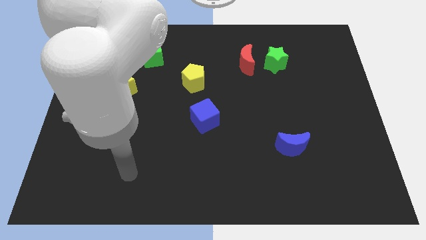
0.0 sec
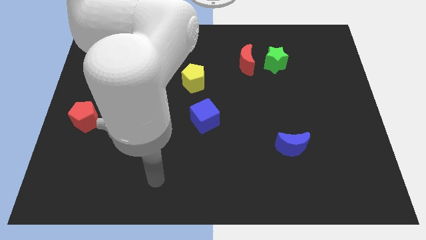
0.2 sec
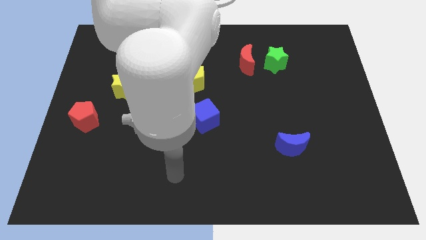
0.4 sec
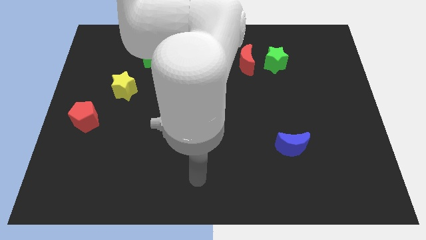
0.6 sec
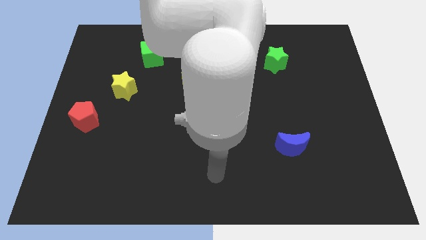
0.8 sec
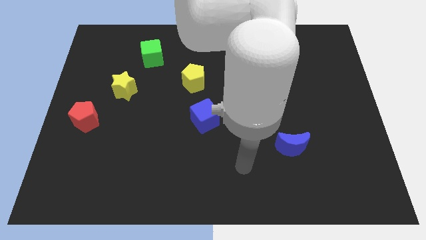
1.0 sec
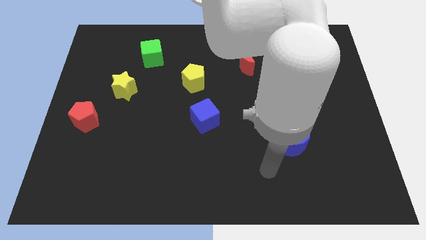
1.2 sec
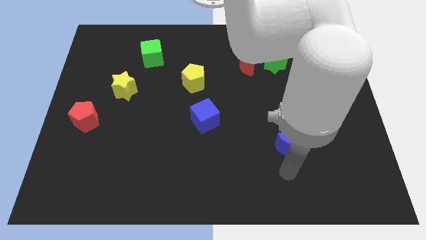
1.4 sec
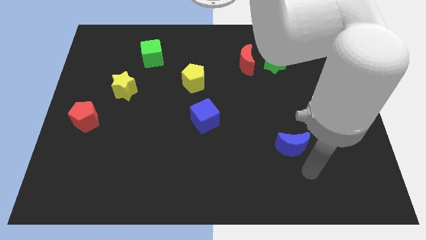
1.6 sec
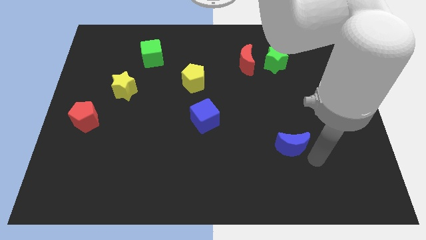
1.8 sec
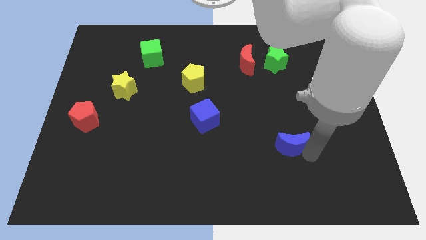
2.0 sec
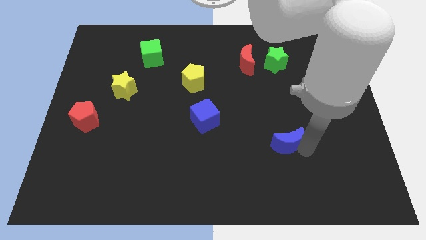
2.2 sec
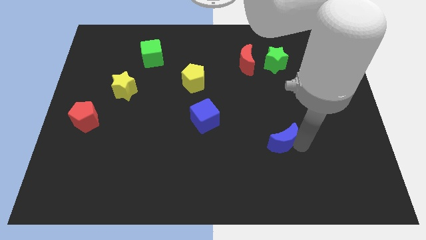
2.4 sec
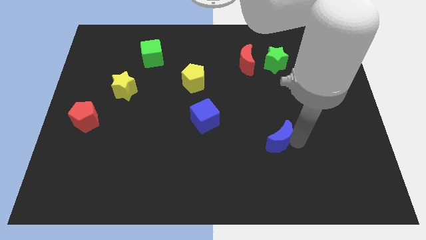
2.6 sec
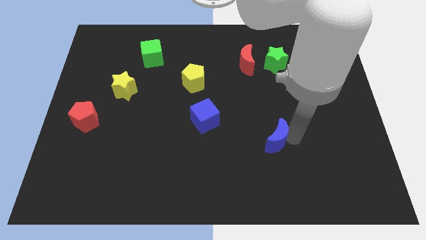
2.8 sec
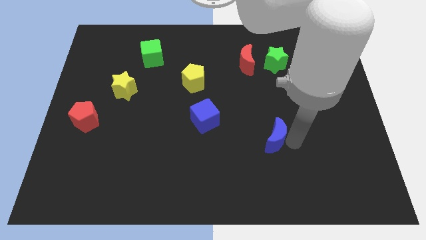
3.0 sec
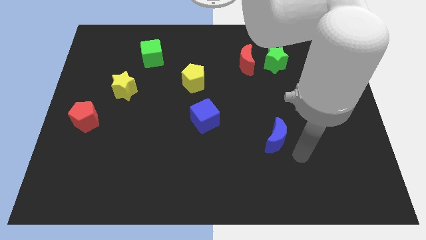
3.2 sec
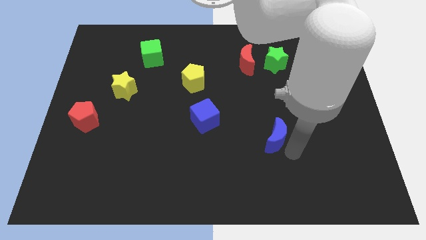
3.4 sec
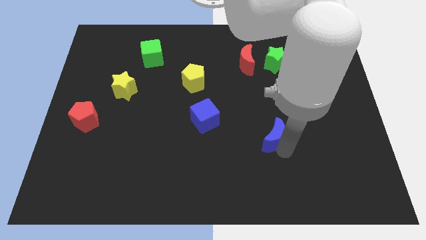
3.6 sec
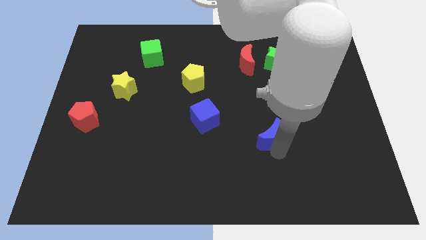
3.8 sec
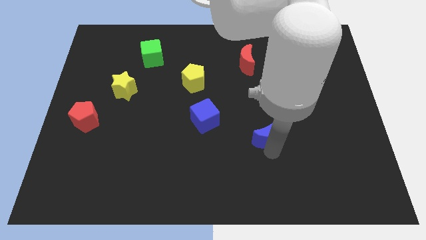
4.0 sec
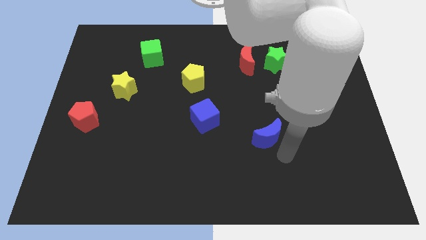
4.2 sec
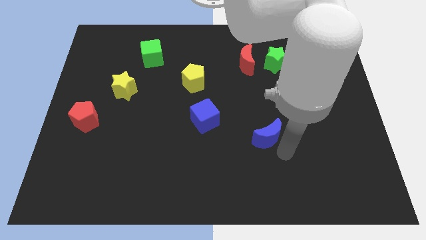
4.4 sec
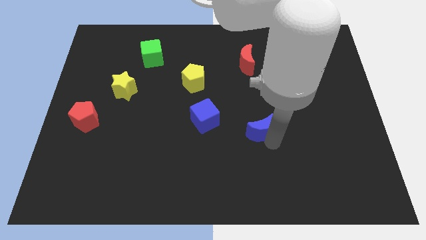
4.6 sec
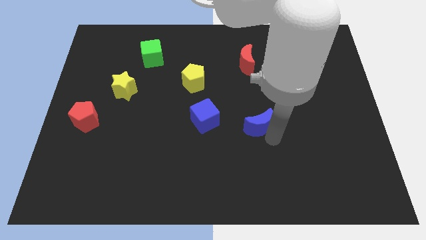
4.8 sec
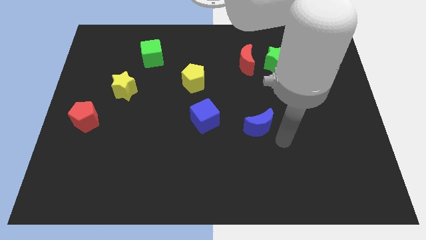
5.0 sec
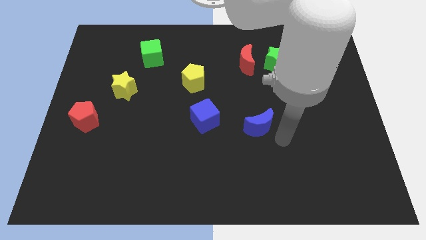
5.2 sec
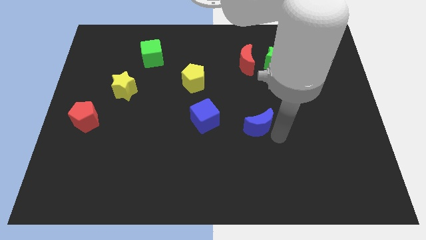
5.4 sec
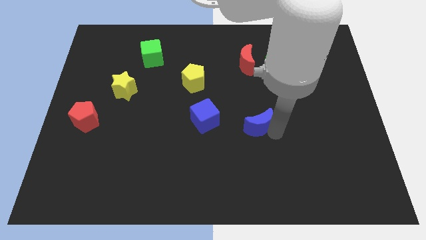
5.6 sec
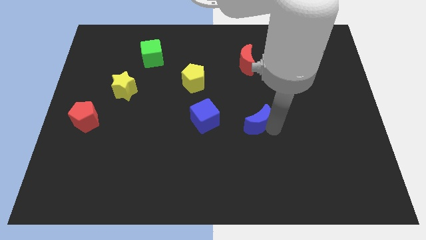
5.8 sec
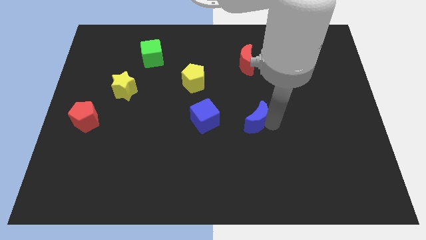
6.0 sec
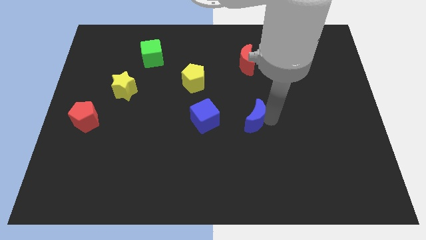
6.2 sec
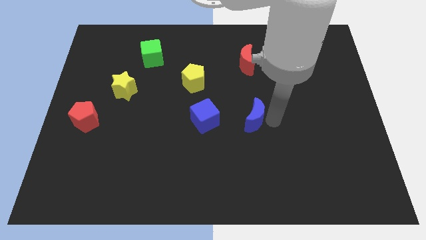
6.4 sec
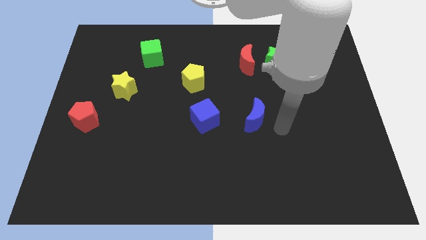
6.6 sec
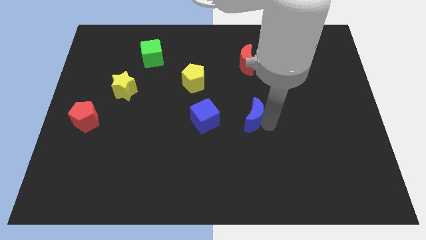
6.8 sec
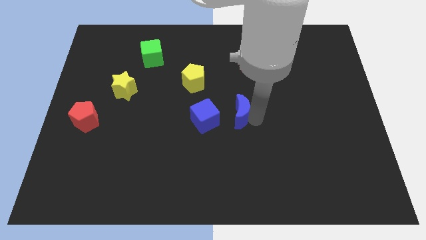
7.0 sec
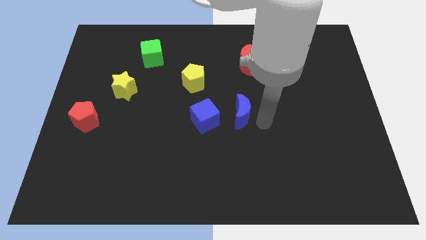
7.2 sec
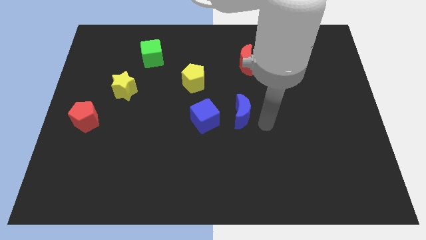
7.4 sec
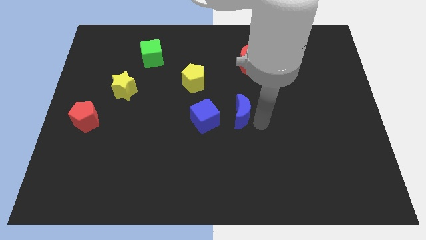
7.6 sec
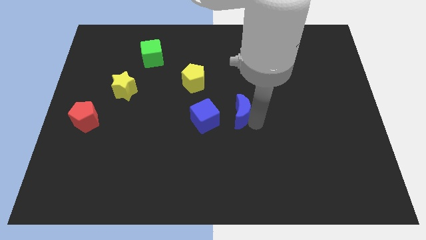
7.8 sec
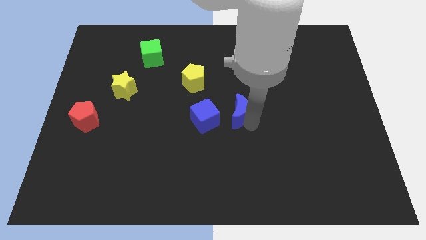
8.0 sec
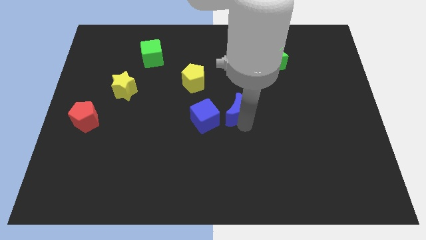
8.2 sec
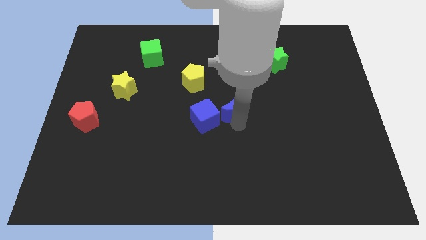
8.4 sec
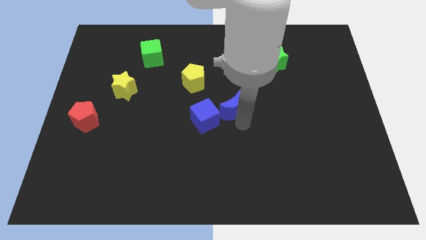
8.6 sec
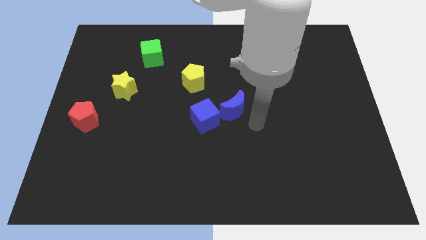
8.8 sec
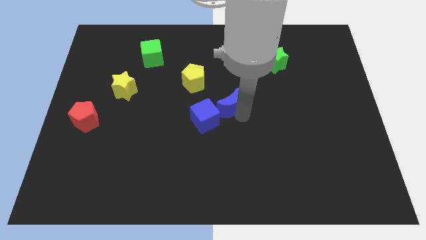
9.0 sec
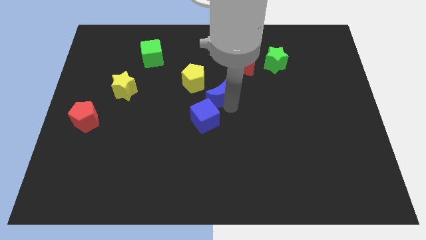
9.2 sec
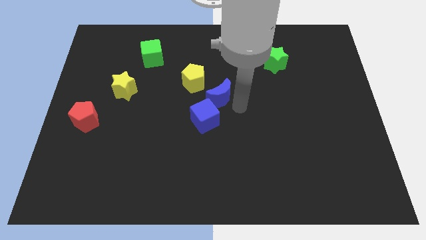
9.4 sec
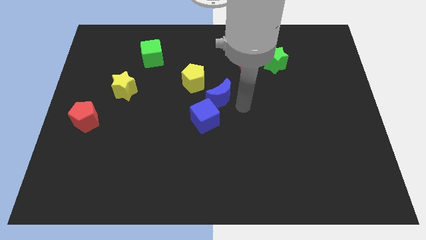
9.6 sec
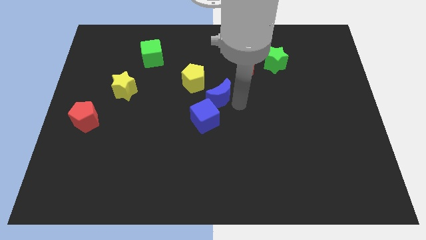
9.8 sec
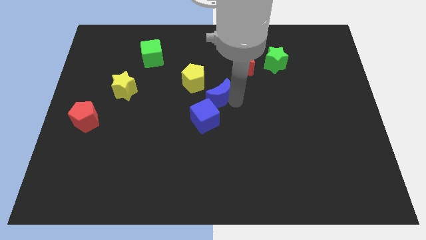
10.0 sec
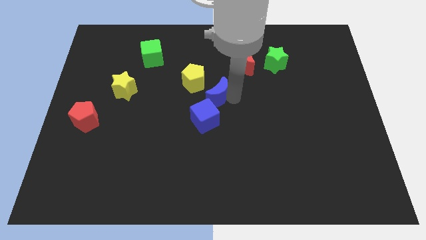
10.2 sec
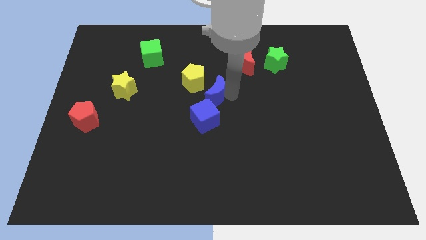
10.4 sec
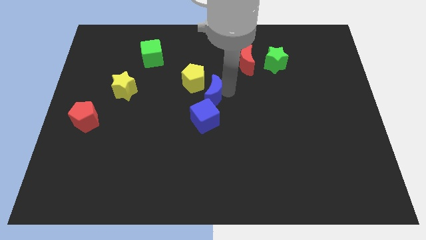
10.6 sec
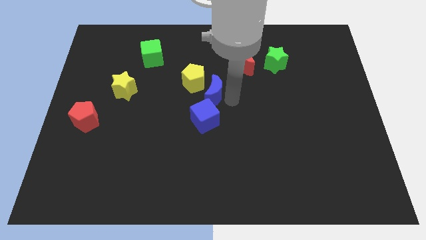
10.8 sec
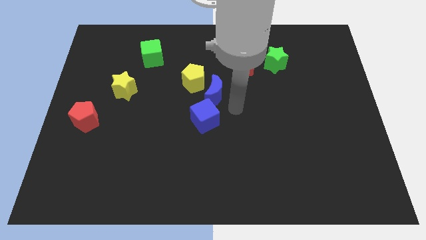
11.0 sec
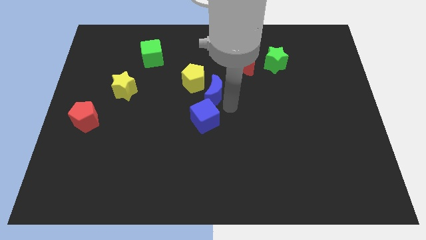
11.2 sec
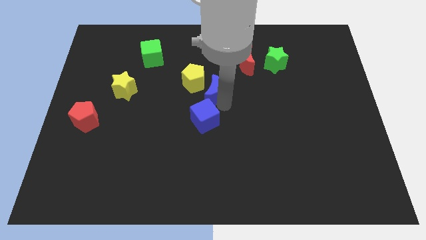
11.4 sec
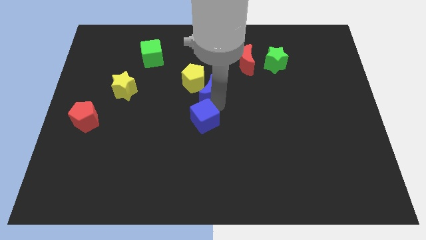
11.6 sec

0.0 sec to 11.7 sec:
slide the blue moon towards the yellow pentagon

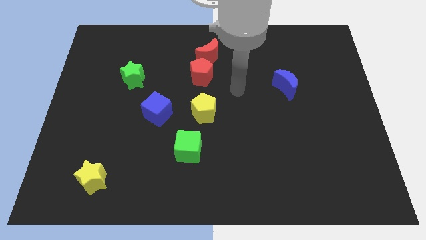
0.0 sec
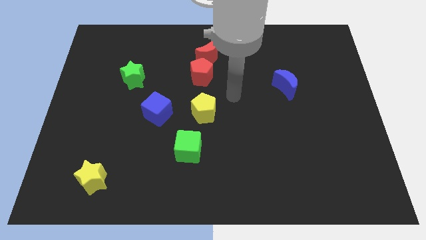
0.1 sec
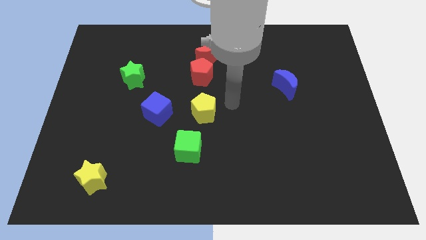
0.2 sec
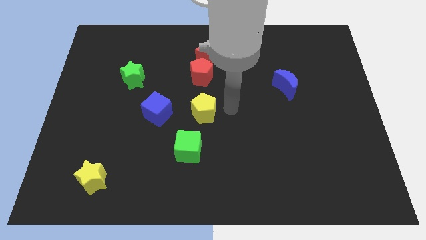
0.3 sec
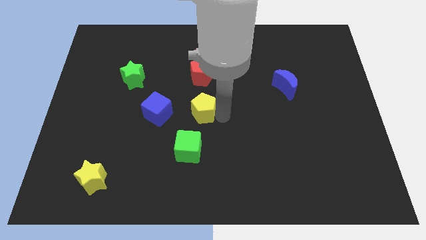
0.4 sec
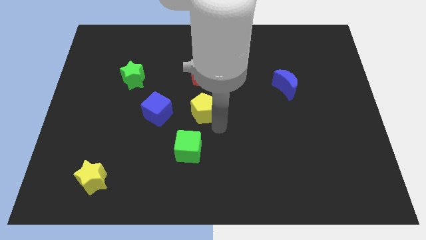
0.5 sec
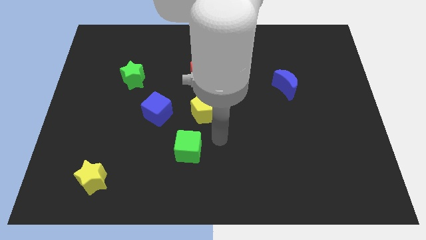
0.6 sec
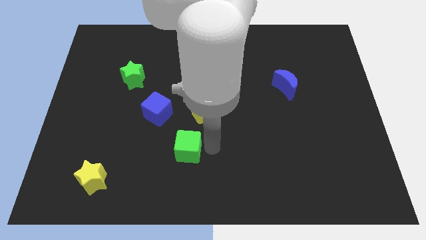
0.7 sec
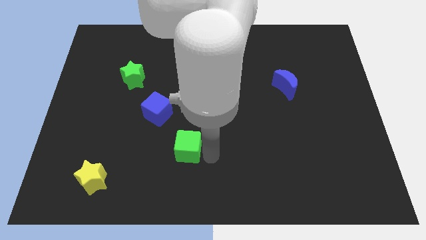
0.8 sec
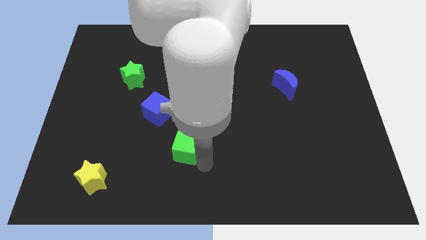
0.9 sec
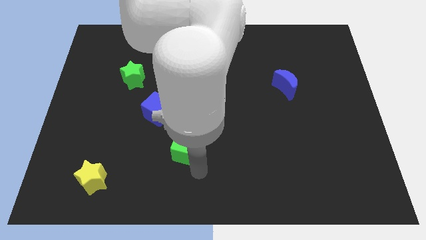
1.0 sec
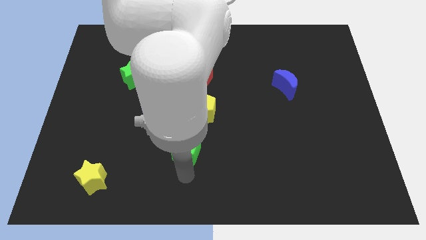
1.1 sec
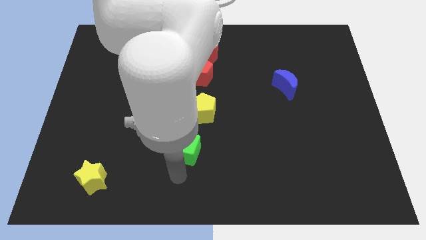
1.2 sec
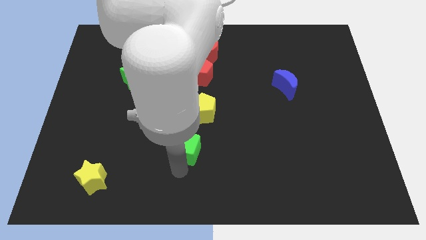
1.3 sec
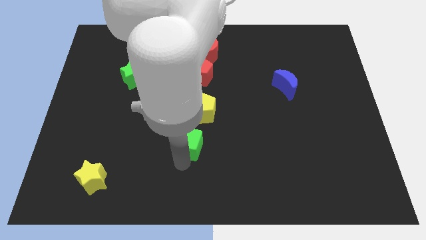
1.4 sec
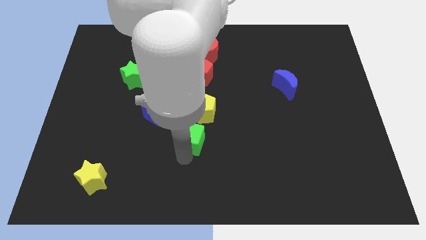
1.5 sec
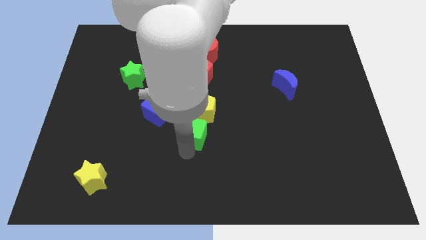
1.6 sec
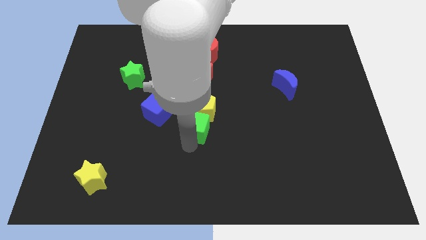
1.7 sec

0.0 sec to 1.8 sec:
slide the green cube next to the yellow pentagon

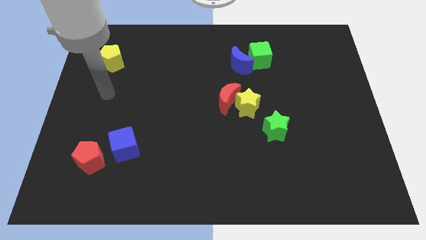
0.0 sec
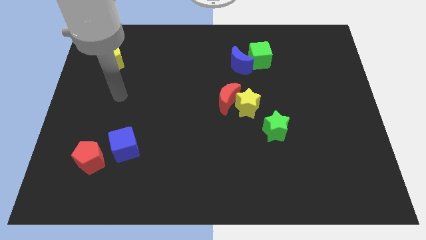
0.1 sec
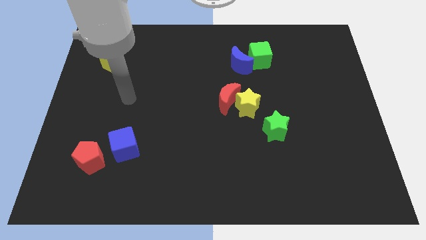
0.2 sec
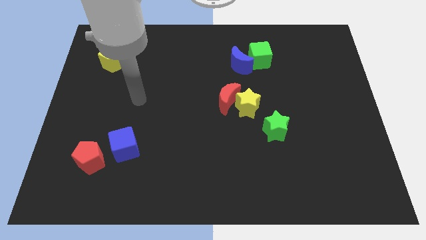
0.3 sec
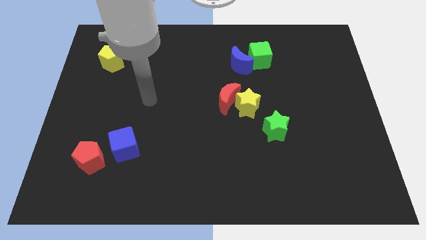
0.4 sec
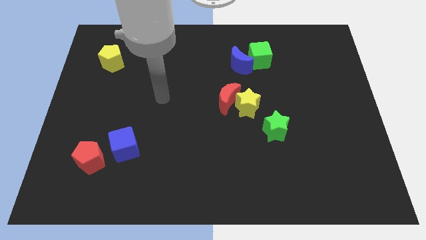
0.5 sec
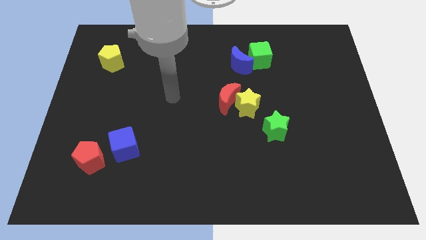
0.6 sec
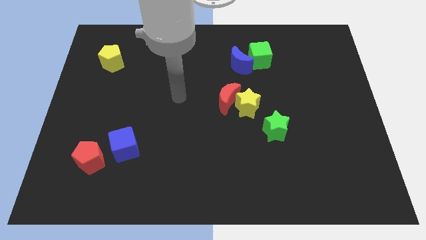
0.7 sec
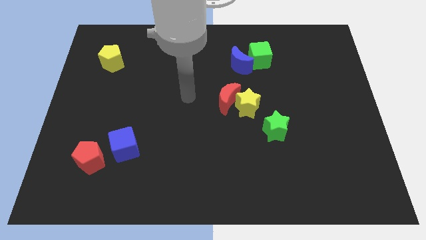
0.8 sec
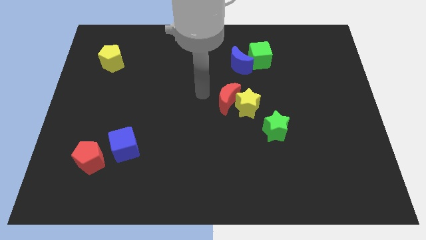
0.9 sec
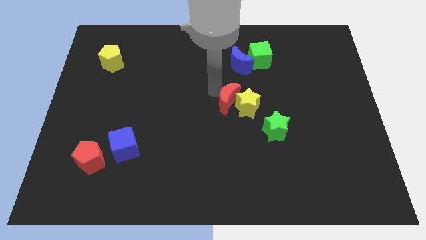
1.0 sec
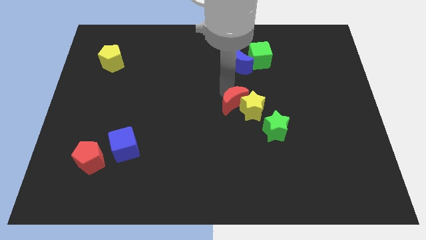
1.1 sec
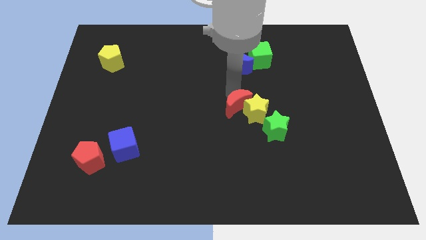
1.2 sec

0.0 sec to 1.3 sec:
move the yellow star close to the green star
